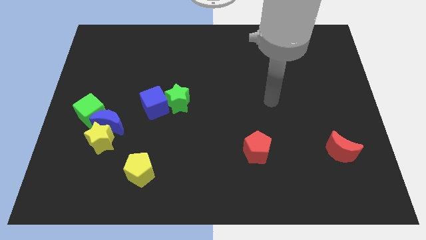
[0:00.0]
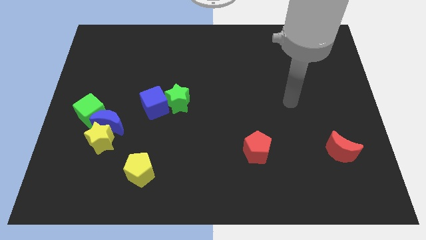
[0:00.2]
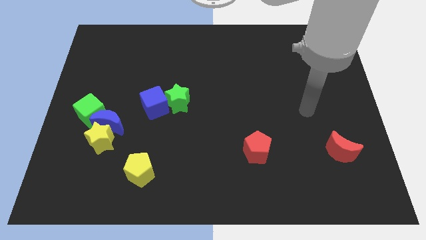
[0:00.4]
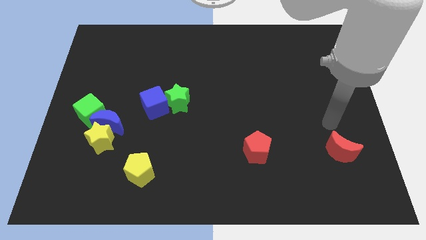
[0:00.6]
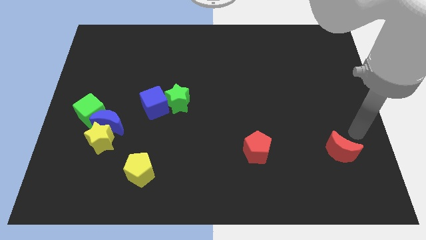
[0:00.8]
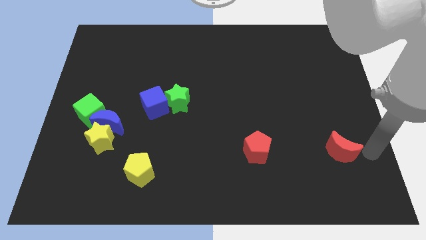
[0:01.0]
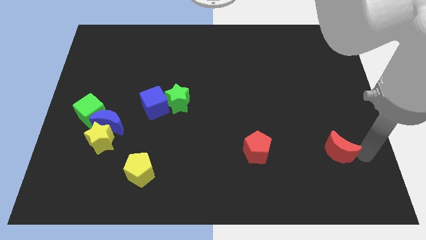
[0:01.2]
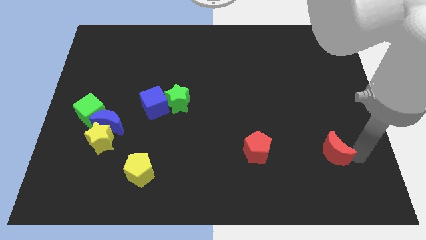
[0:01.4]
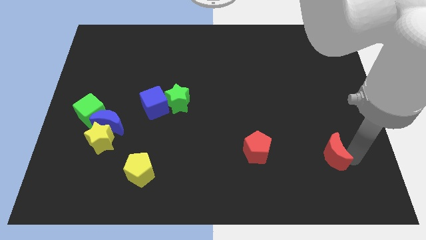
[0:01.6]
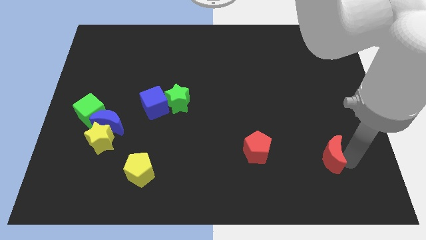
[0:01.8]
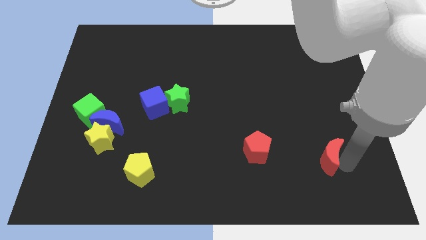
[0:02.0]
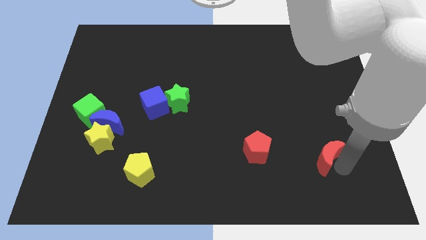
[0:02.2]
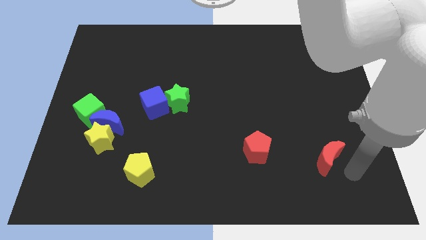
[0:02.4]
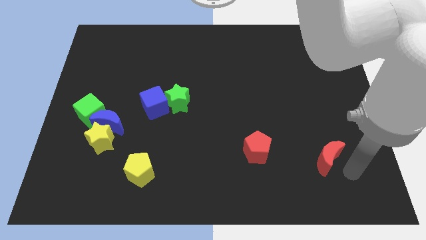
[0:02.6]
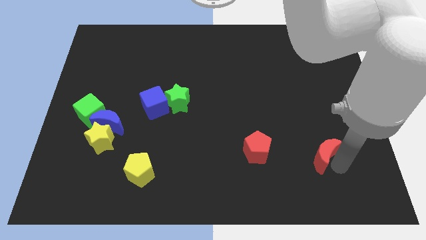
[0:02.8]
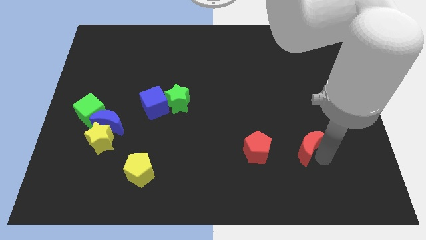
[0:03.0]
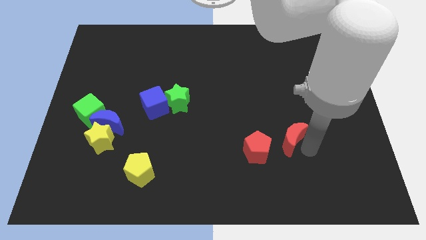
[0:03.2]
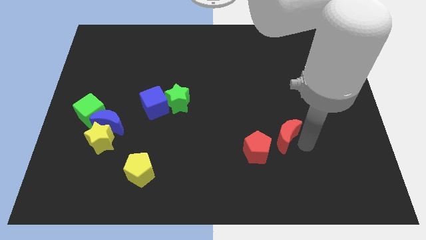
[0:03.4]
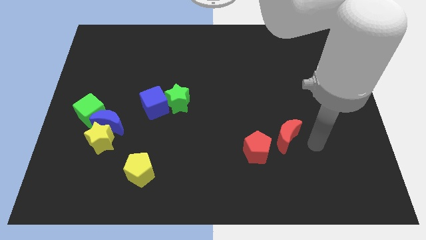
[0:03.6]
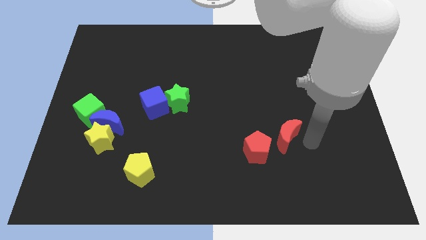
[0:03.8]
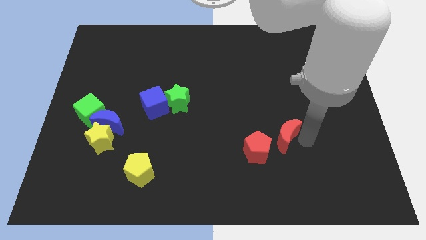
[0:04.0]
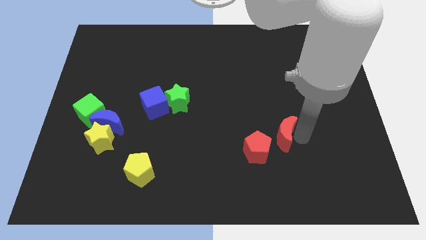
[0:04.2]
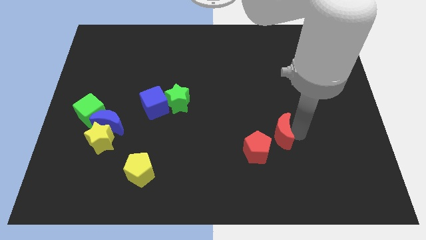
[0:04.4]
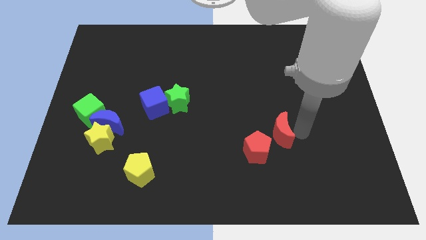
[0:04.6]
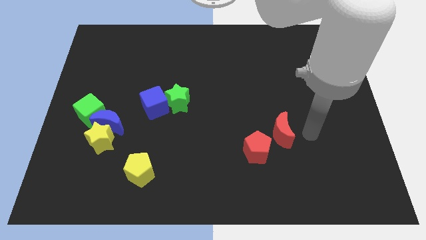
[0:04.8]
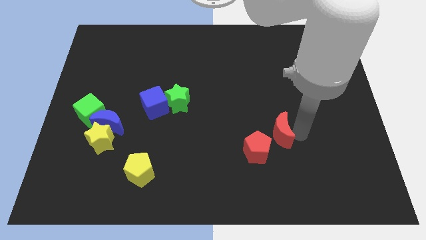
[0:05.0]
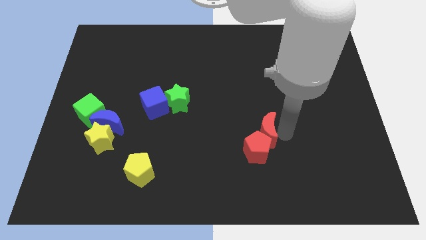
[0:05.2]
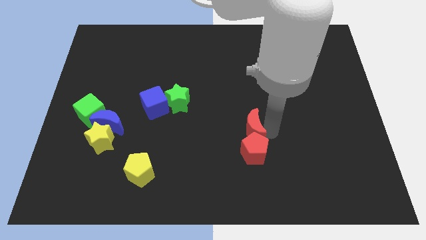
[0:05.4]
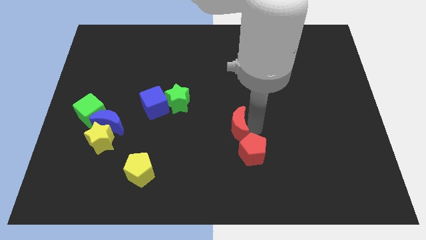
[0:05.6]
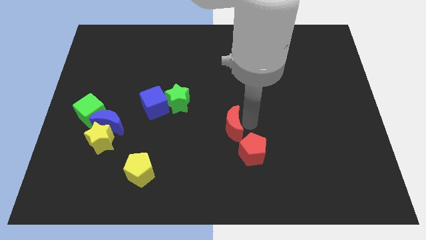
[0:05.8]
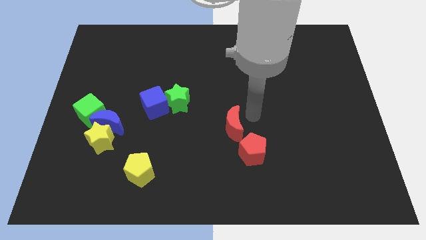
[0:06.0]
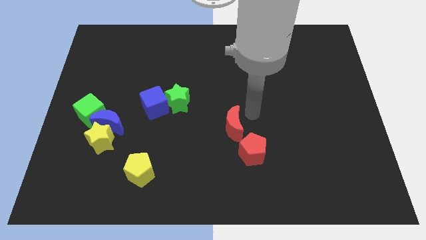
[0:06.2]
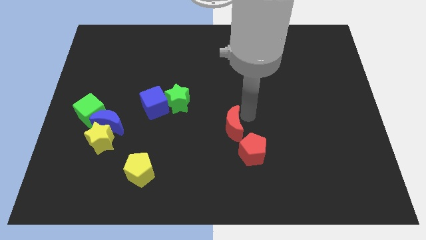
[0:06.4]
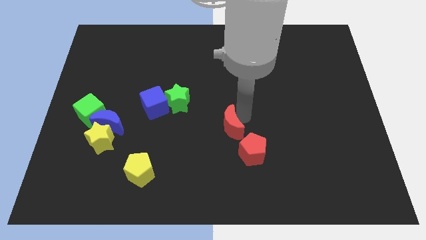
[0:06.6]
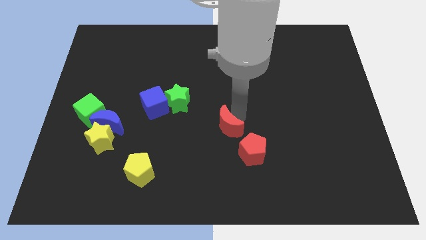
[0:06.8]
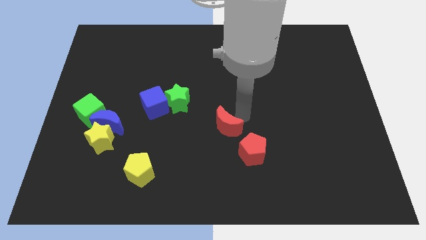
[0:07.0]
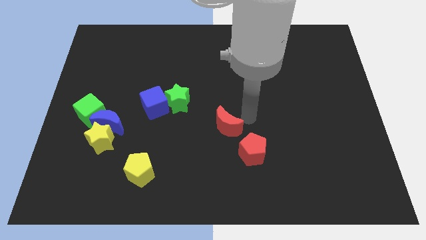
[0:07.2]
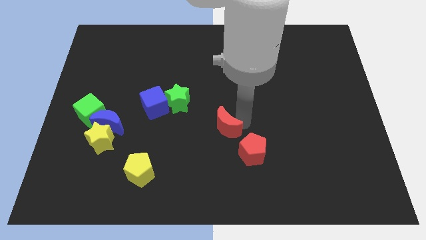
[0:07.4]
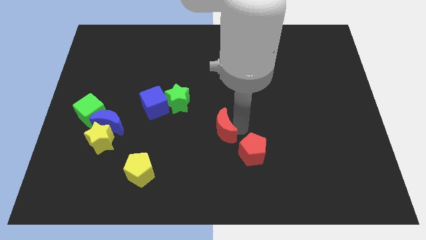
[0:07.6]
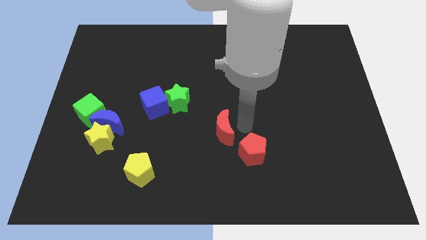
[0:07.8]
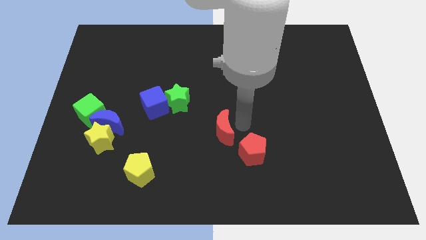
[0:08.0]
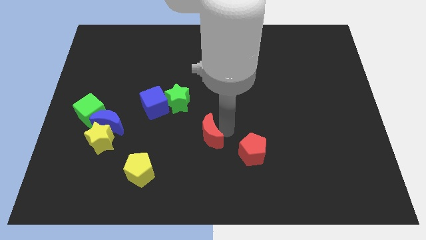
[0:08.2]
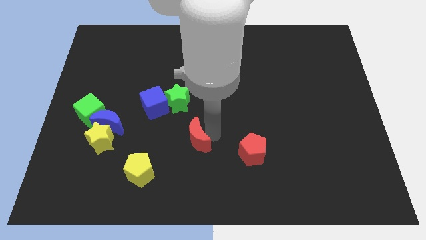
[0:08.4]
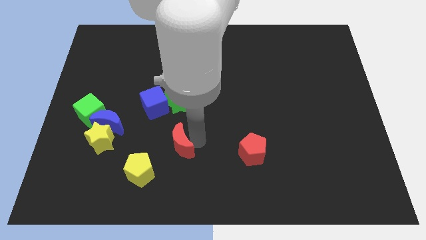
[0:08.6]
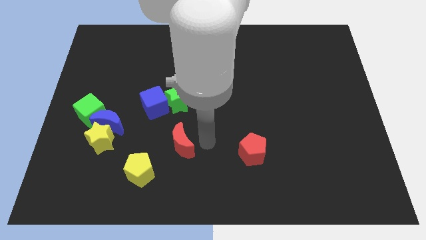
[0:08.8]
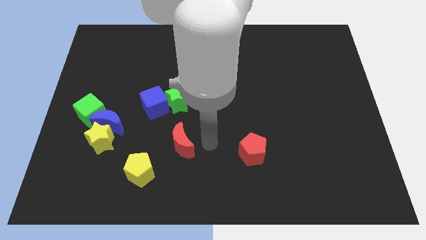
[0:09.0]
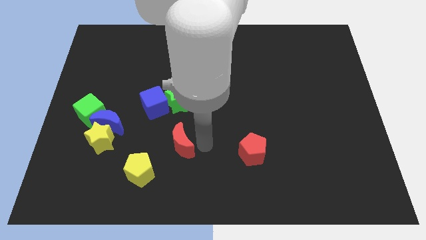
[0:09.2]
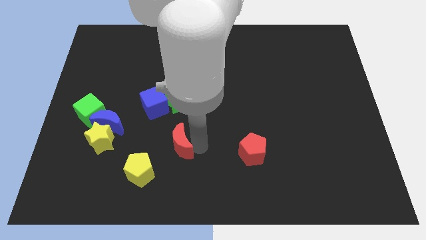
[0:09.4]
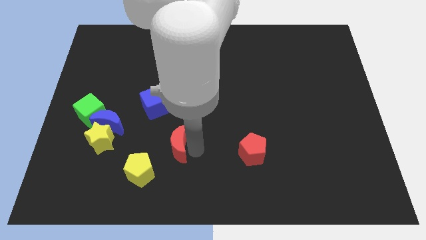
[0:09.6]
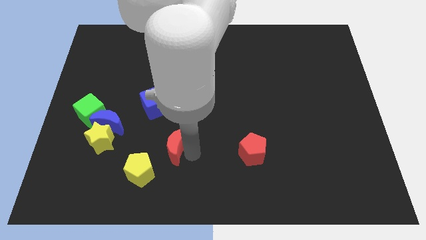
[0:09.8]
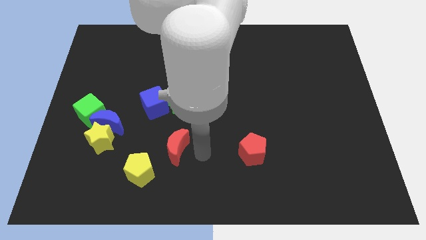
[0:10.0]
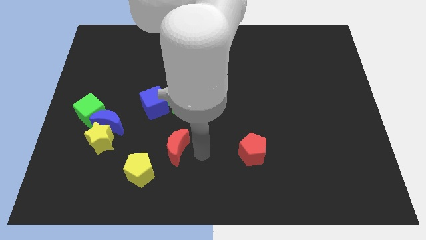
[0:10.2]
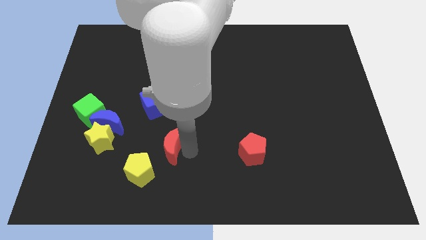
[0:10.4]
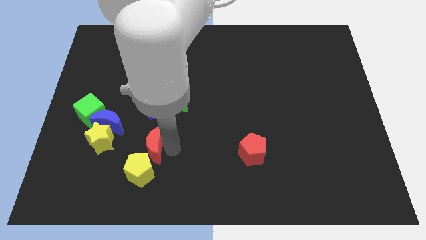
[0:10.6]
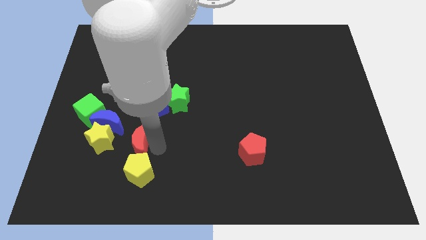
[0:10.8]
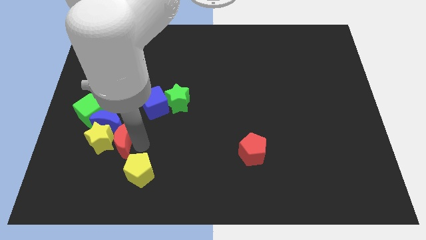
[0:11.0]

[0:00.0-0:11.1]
put the red moon to the yellow star

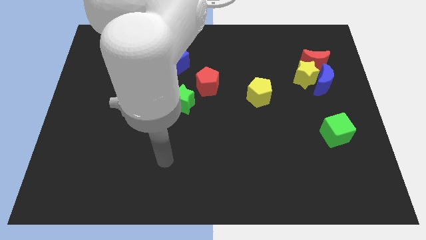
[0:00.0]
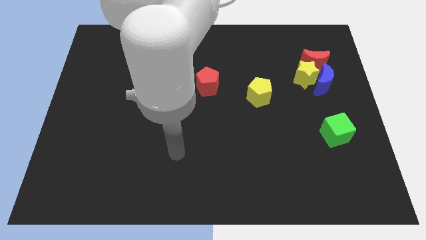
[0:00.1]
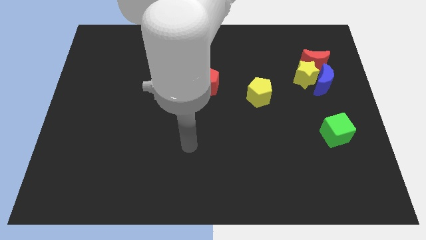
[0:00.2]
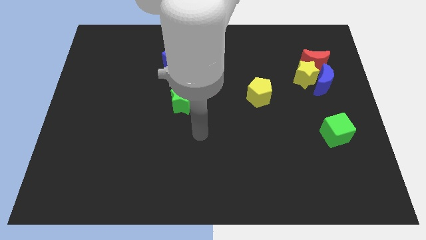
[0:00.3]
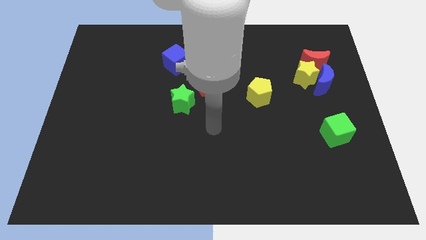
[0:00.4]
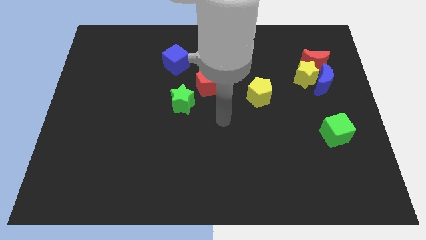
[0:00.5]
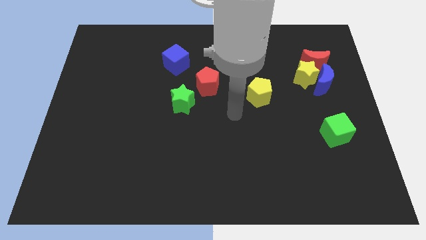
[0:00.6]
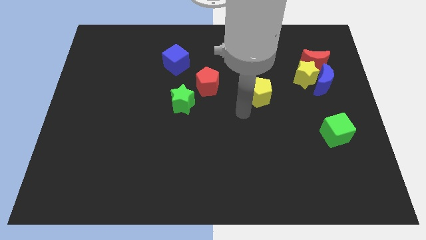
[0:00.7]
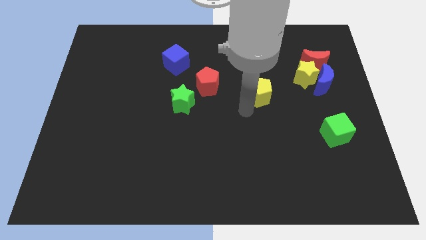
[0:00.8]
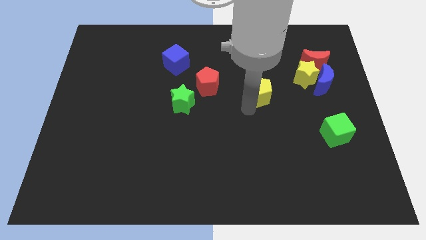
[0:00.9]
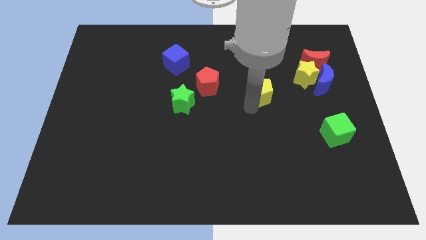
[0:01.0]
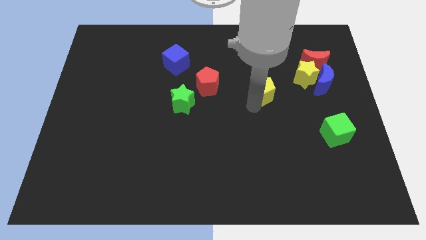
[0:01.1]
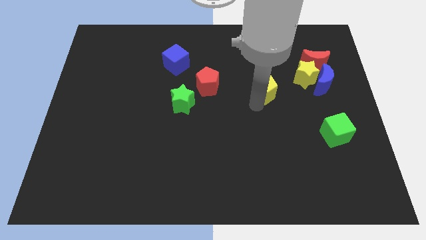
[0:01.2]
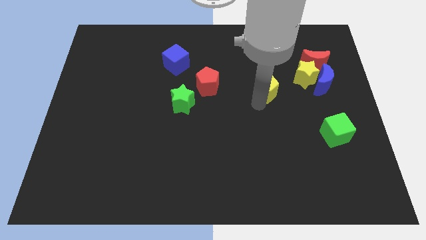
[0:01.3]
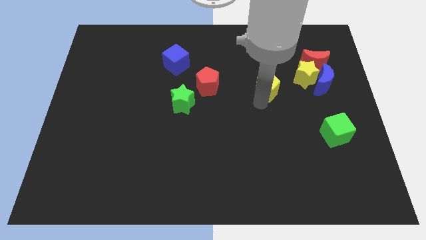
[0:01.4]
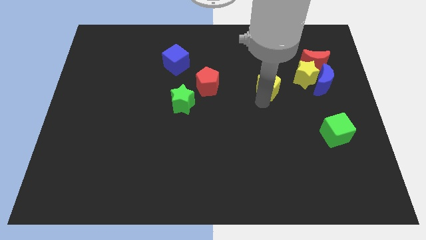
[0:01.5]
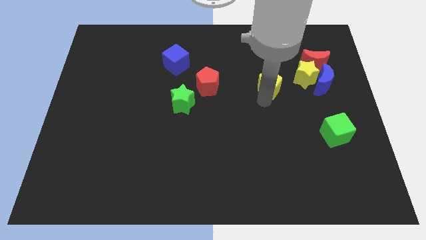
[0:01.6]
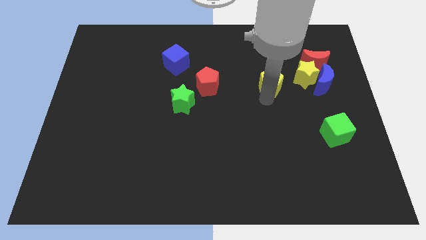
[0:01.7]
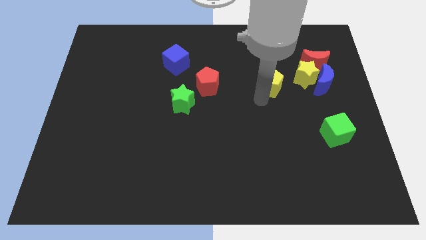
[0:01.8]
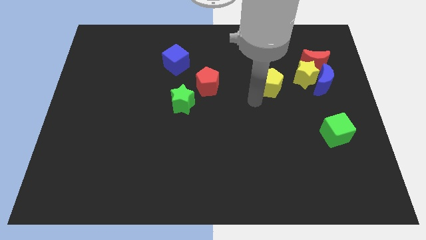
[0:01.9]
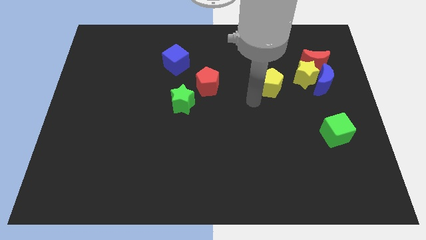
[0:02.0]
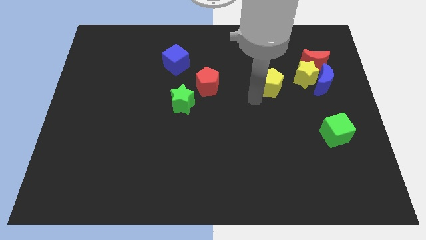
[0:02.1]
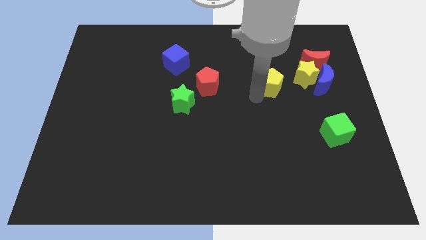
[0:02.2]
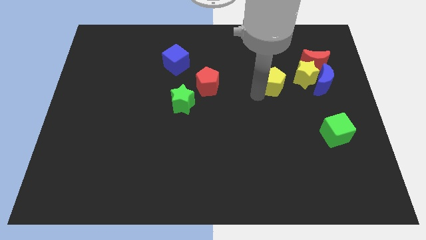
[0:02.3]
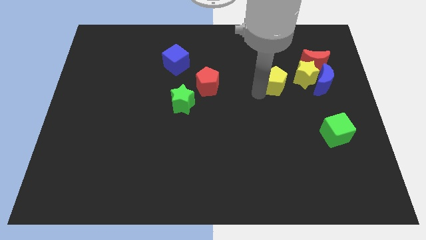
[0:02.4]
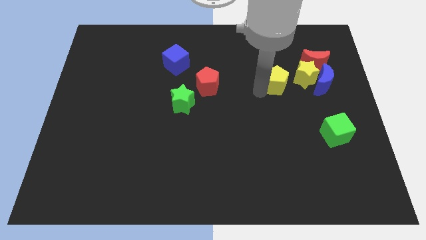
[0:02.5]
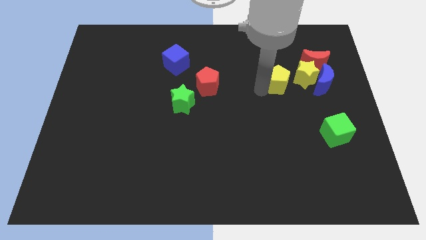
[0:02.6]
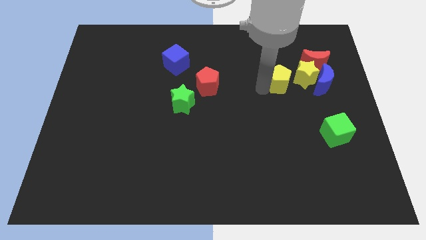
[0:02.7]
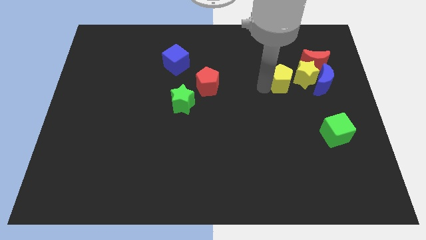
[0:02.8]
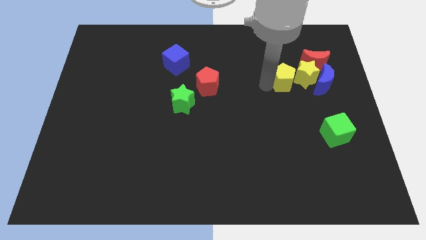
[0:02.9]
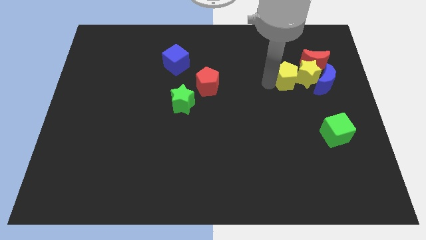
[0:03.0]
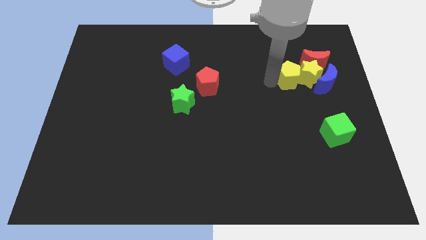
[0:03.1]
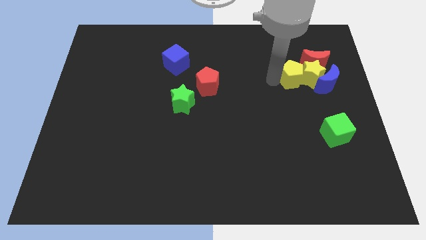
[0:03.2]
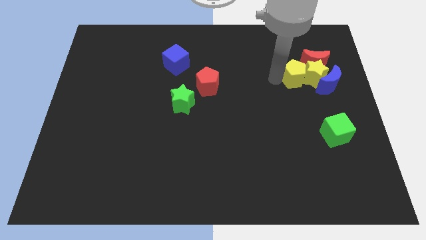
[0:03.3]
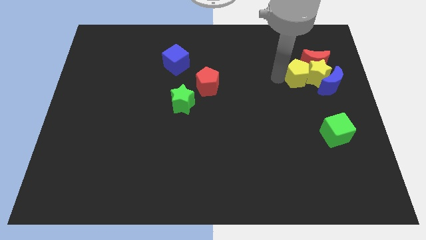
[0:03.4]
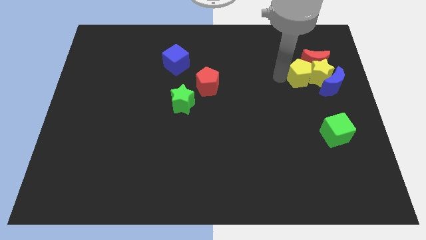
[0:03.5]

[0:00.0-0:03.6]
move the yellow pentagon next to the red moon
